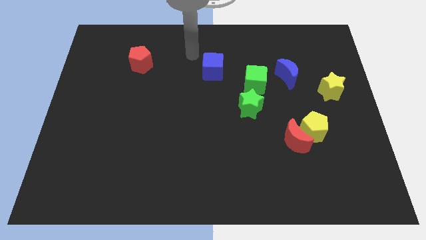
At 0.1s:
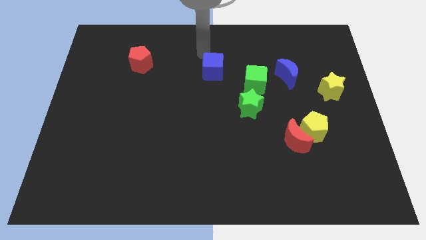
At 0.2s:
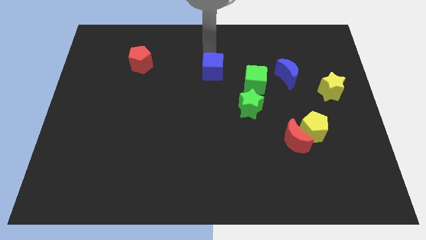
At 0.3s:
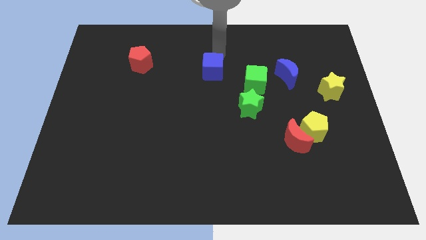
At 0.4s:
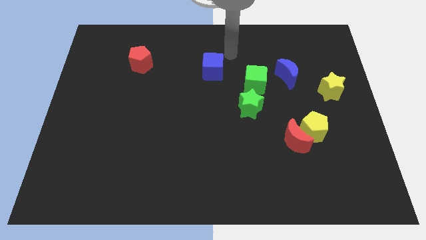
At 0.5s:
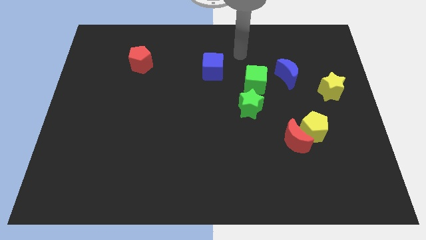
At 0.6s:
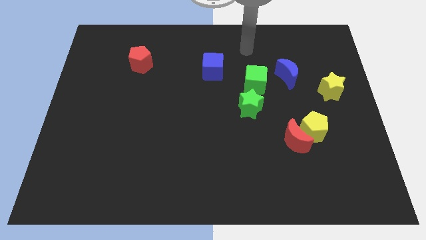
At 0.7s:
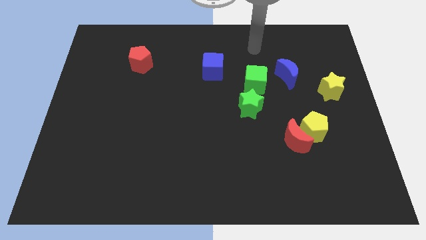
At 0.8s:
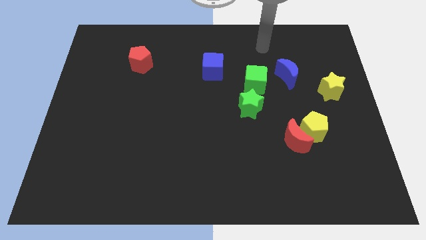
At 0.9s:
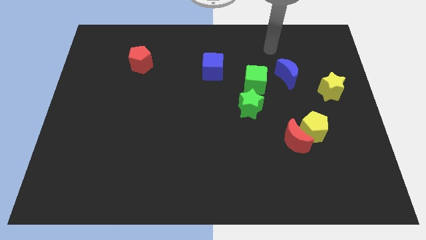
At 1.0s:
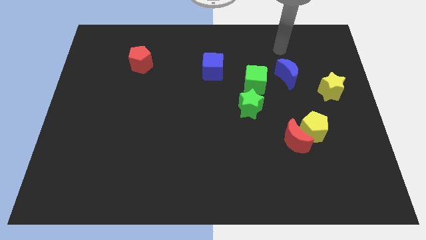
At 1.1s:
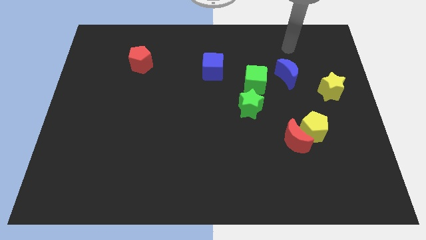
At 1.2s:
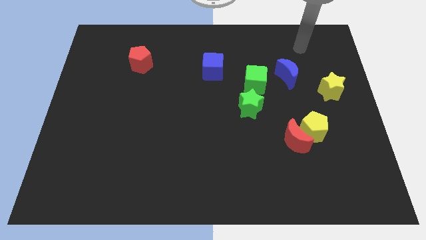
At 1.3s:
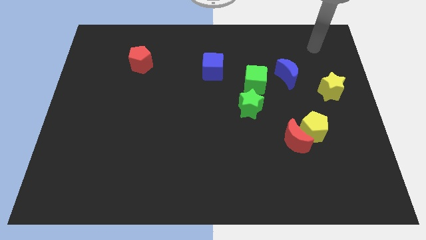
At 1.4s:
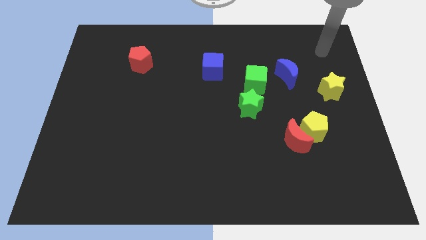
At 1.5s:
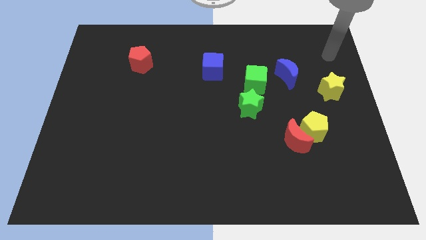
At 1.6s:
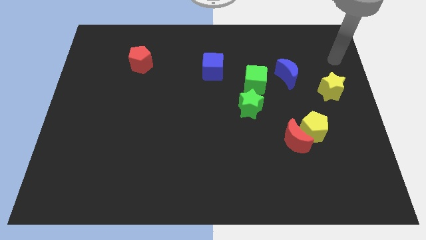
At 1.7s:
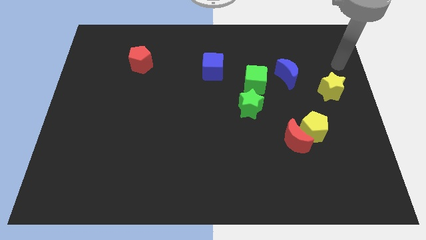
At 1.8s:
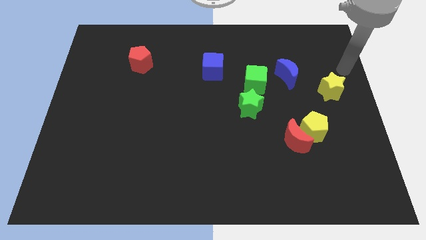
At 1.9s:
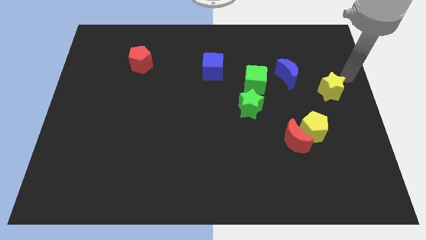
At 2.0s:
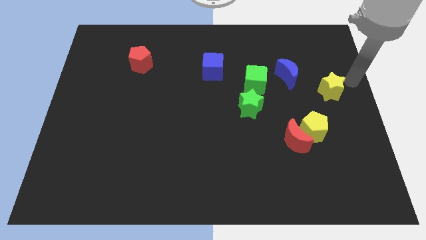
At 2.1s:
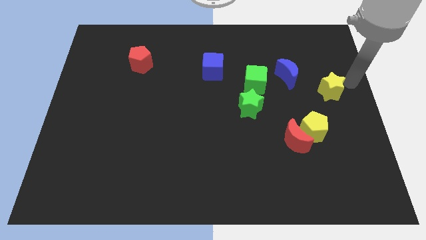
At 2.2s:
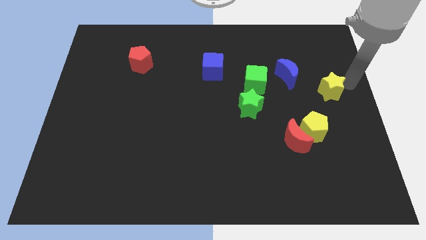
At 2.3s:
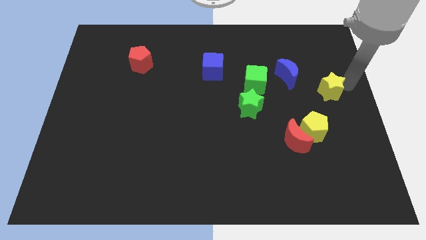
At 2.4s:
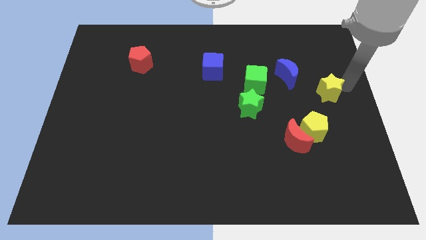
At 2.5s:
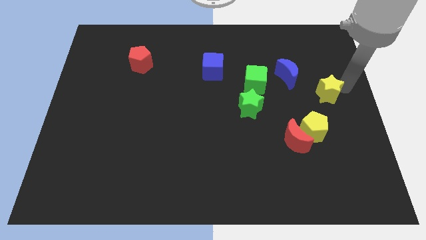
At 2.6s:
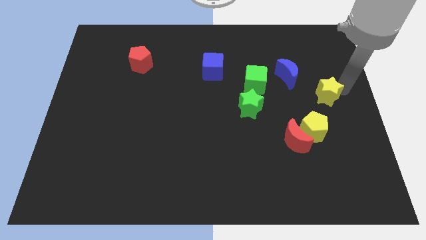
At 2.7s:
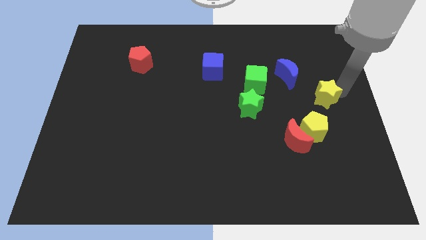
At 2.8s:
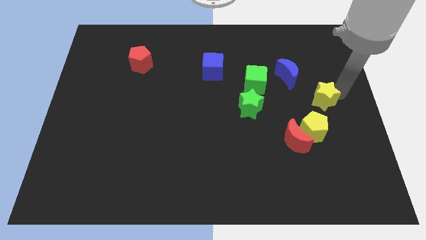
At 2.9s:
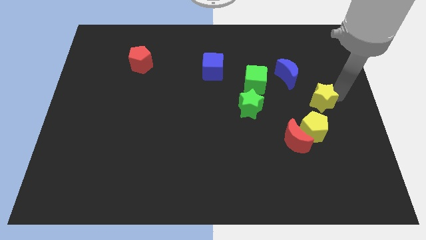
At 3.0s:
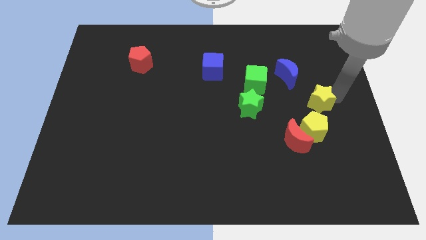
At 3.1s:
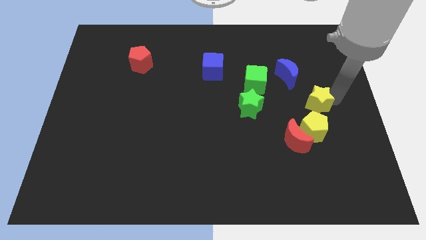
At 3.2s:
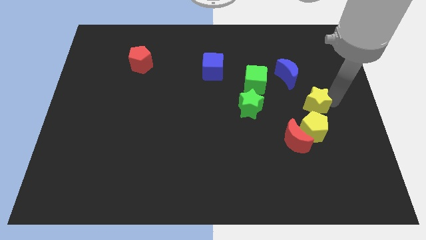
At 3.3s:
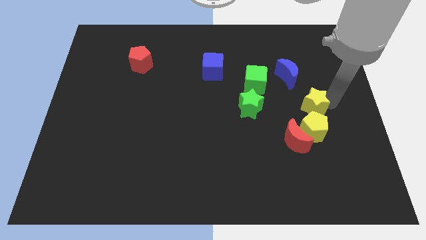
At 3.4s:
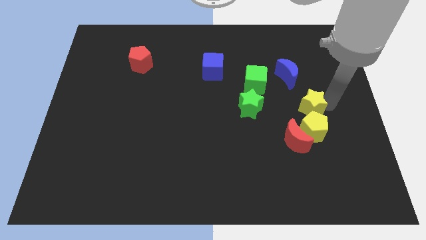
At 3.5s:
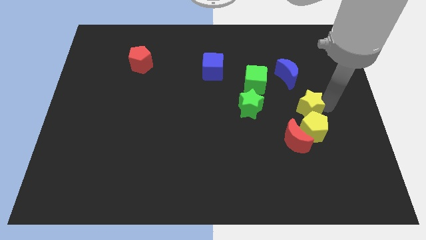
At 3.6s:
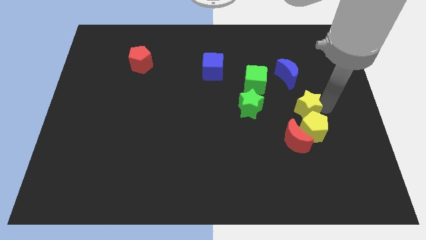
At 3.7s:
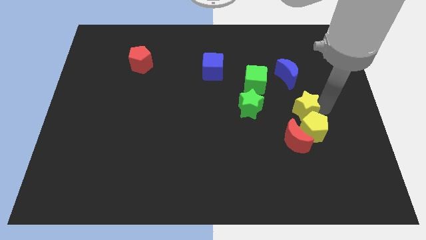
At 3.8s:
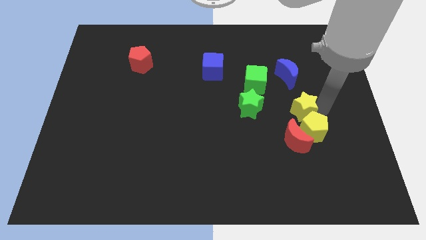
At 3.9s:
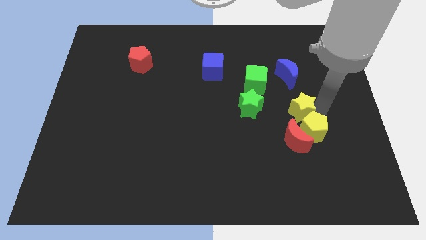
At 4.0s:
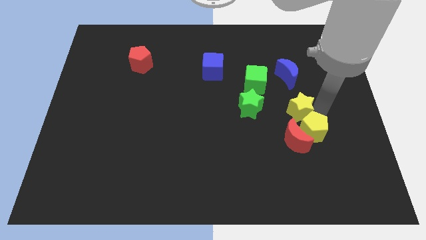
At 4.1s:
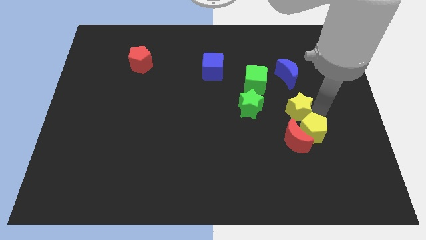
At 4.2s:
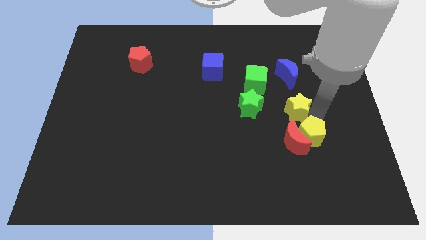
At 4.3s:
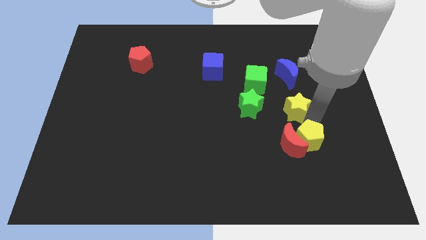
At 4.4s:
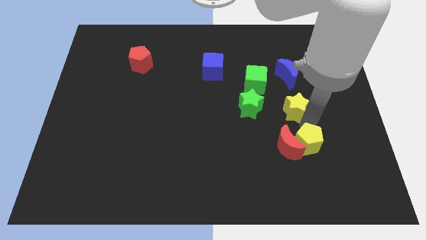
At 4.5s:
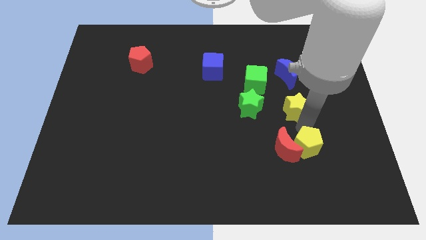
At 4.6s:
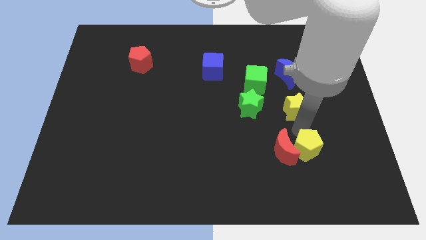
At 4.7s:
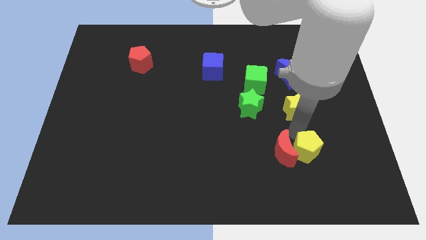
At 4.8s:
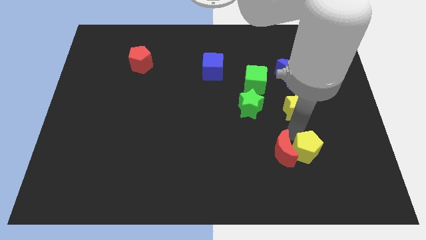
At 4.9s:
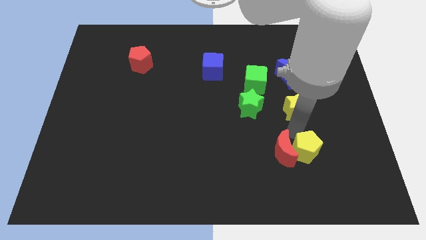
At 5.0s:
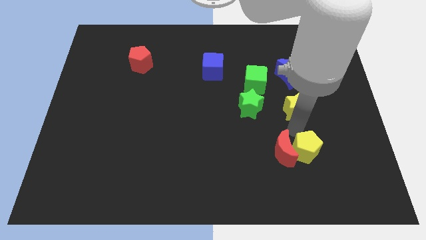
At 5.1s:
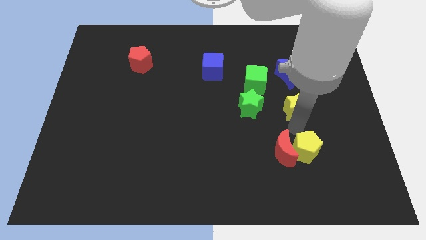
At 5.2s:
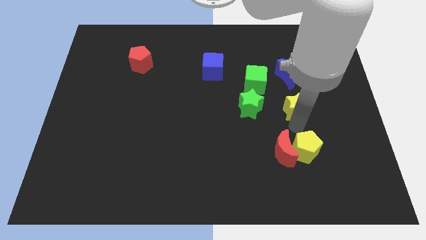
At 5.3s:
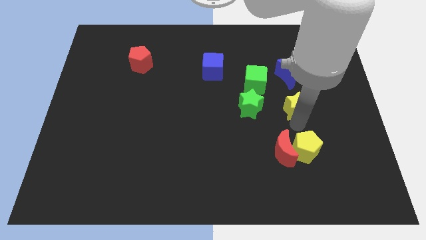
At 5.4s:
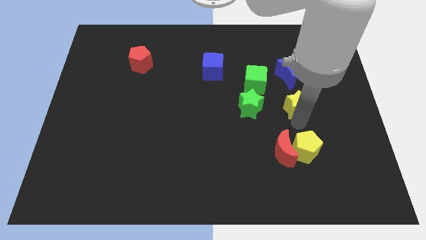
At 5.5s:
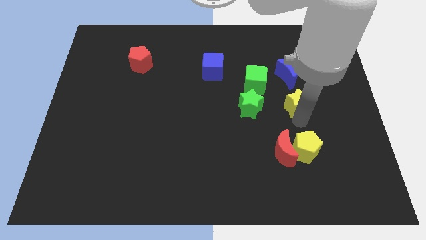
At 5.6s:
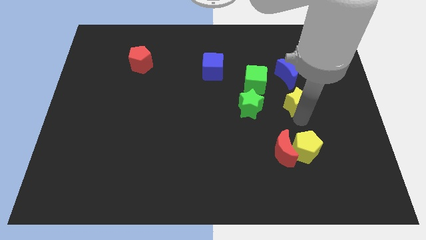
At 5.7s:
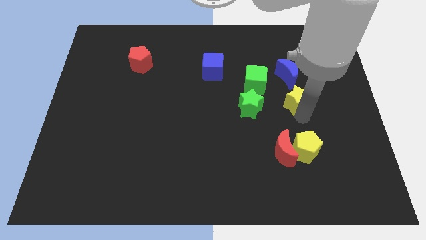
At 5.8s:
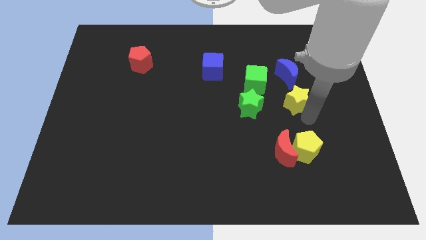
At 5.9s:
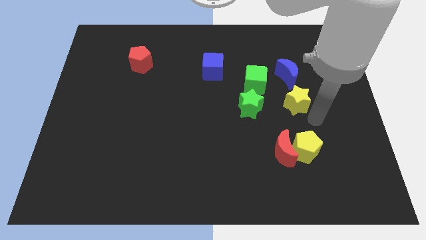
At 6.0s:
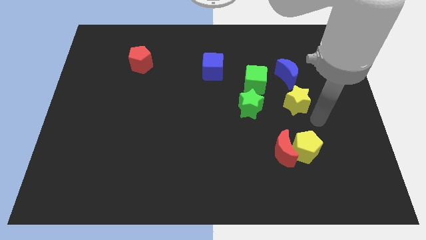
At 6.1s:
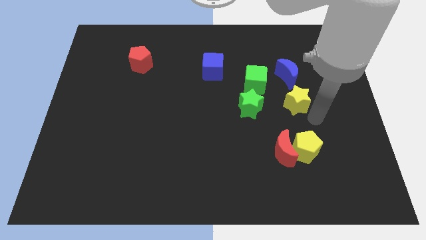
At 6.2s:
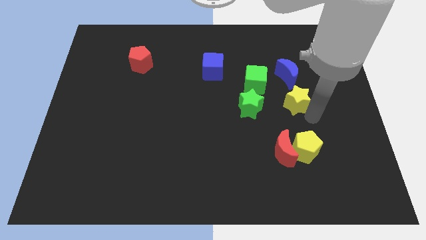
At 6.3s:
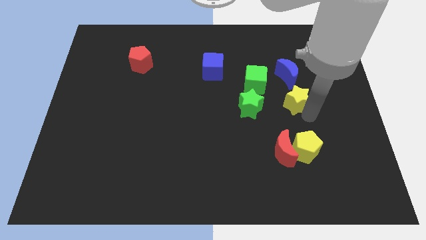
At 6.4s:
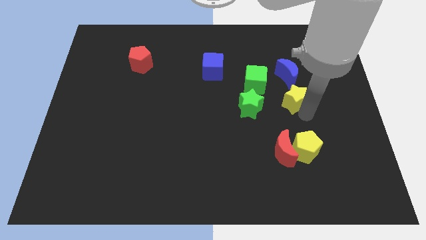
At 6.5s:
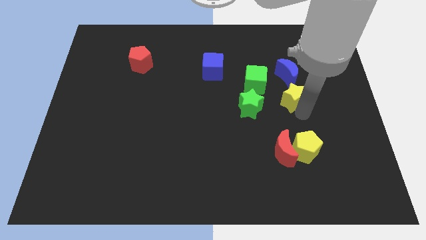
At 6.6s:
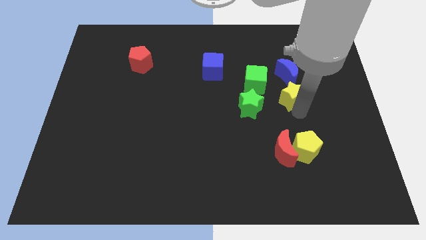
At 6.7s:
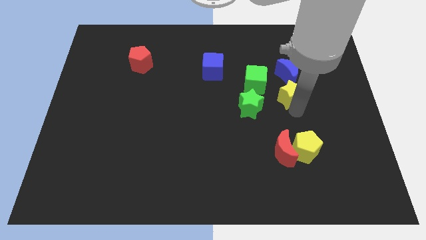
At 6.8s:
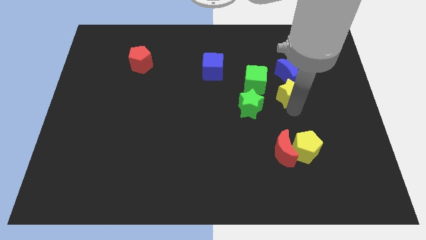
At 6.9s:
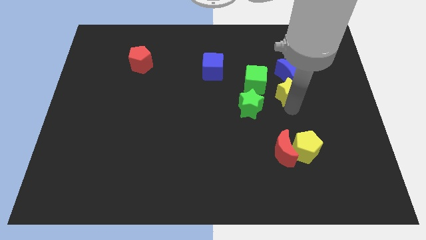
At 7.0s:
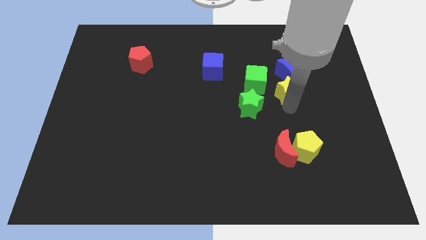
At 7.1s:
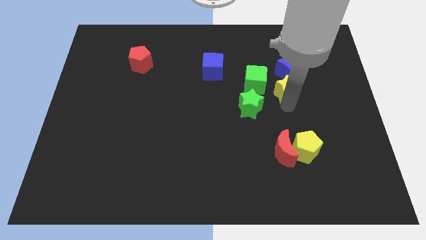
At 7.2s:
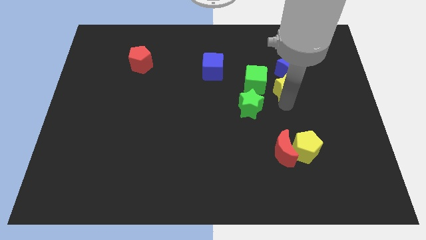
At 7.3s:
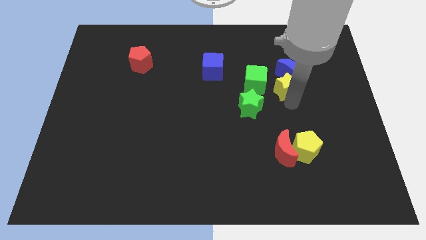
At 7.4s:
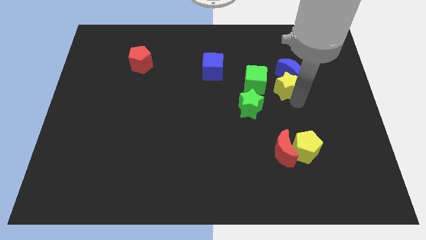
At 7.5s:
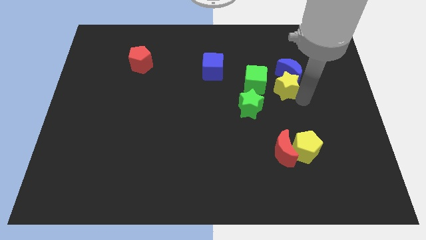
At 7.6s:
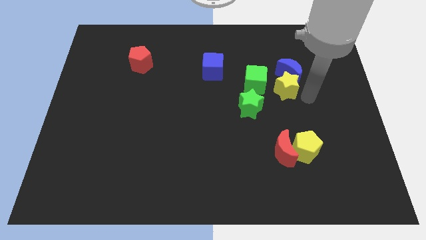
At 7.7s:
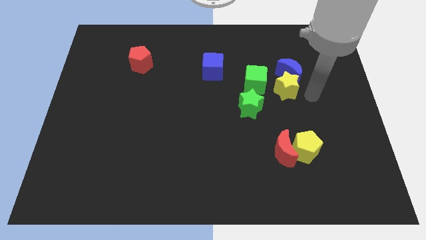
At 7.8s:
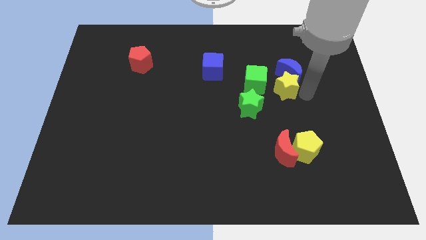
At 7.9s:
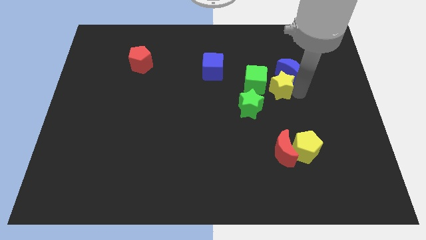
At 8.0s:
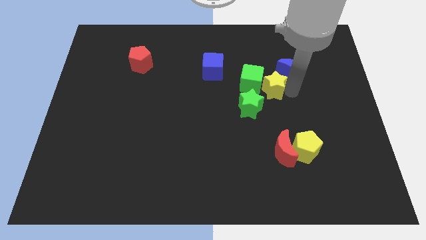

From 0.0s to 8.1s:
push the yellow star close to the green cube
